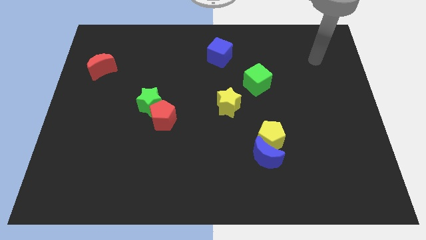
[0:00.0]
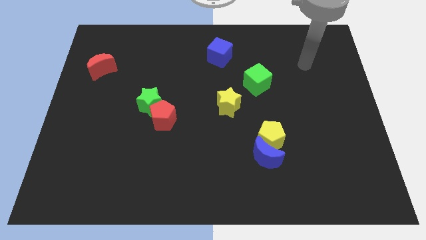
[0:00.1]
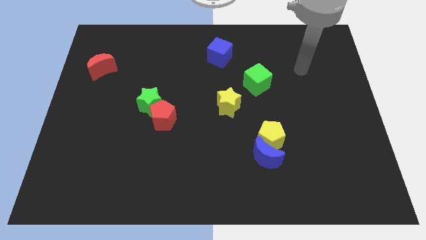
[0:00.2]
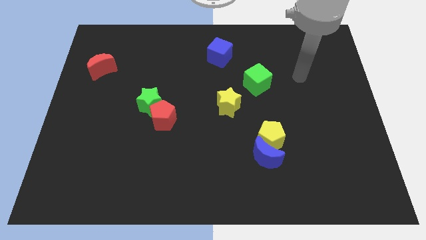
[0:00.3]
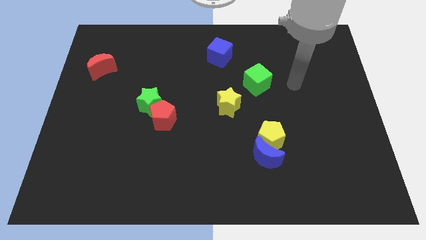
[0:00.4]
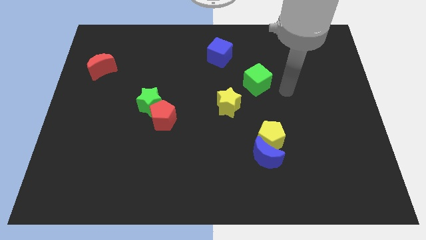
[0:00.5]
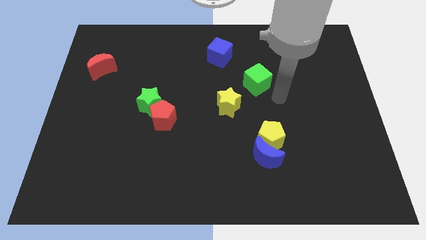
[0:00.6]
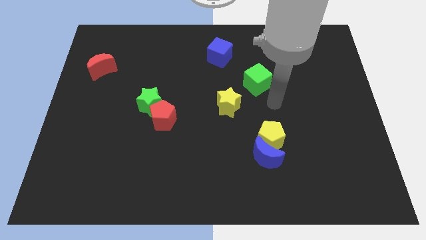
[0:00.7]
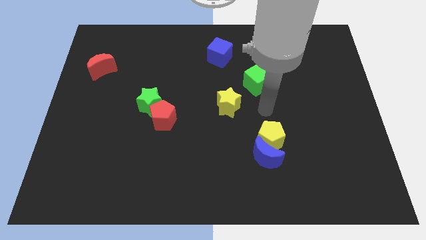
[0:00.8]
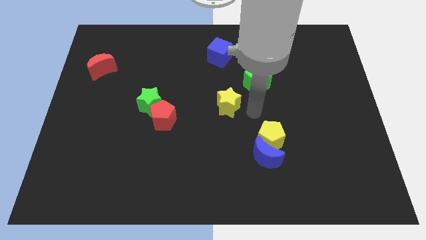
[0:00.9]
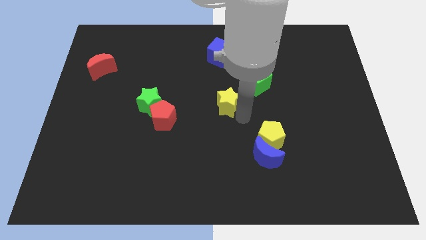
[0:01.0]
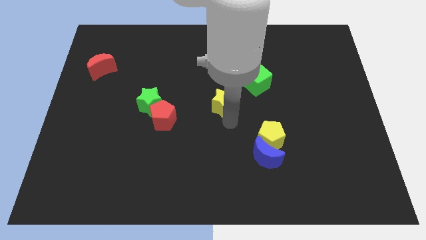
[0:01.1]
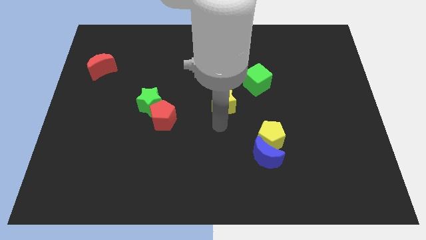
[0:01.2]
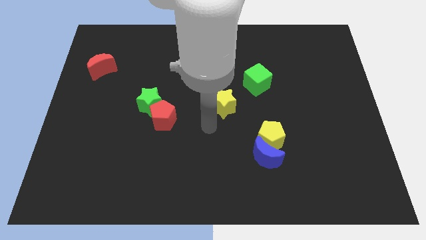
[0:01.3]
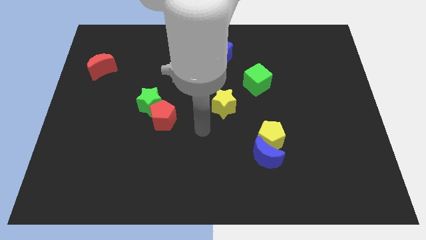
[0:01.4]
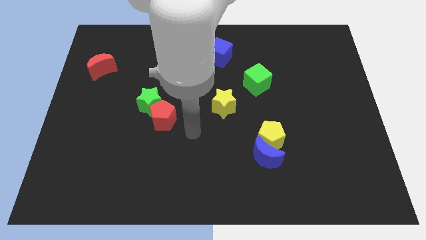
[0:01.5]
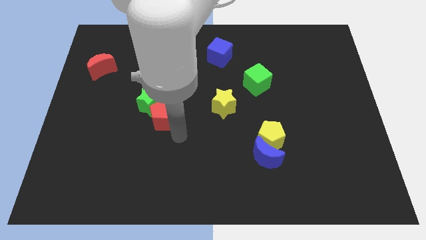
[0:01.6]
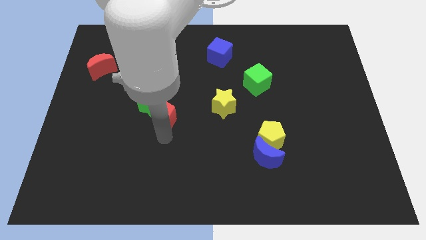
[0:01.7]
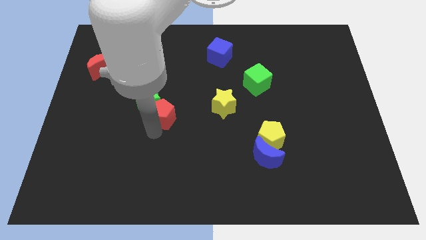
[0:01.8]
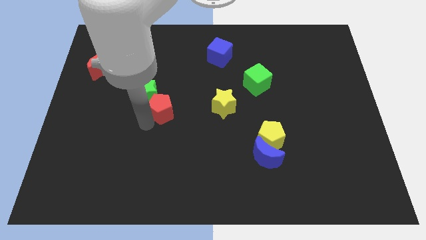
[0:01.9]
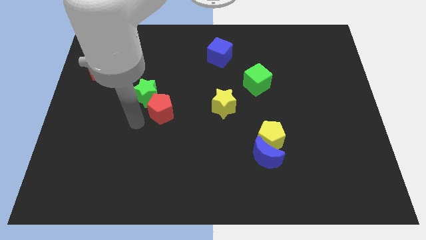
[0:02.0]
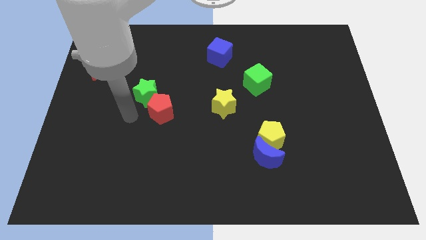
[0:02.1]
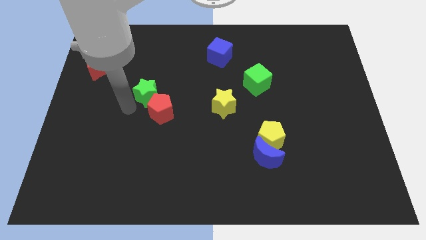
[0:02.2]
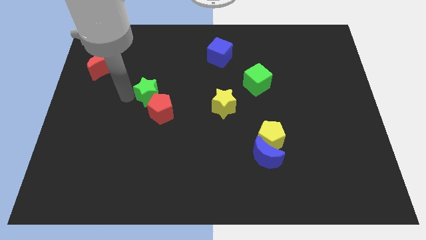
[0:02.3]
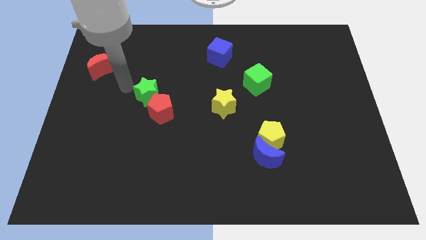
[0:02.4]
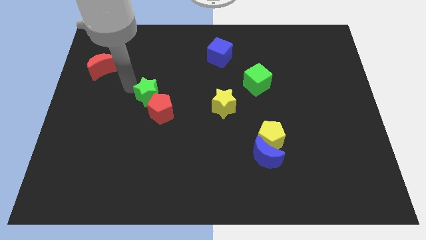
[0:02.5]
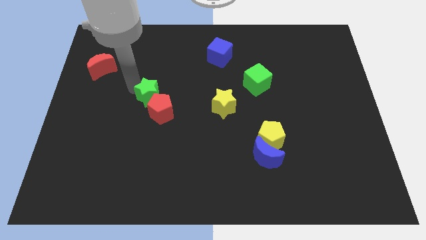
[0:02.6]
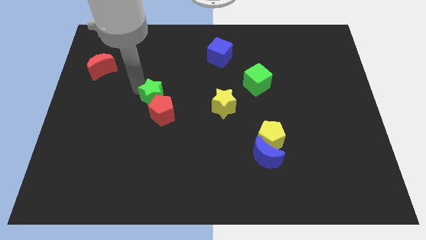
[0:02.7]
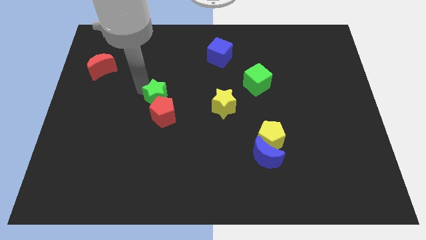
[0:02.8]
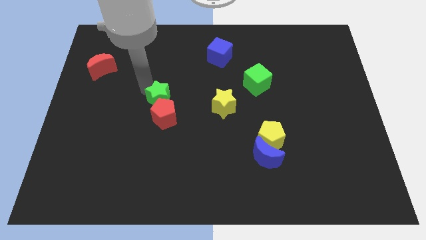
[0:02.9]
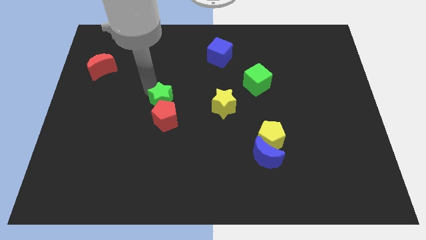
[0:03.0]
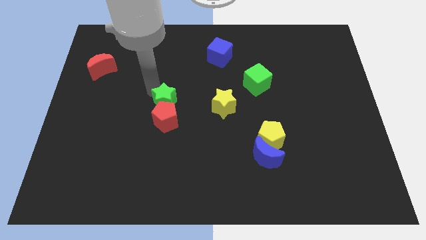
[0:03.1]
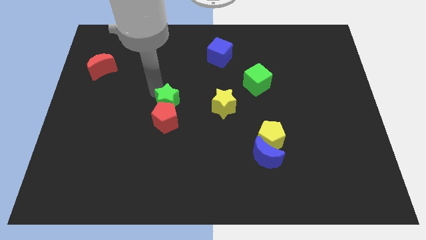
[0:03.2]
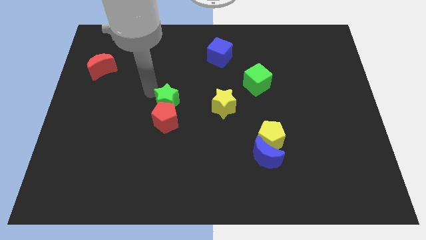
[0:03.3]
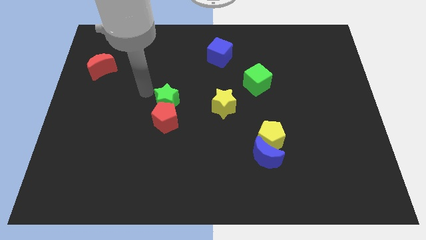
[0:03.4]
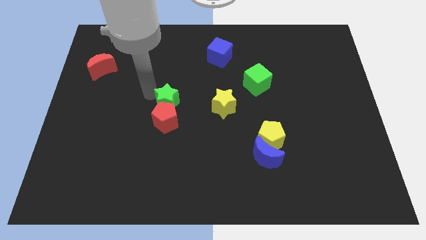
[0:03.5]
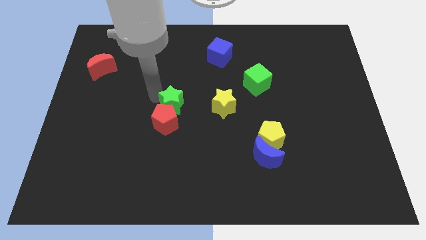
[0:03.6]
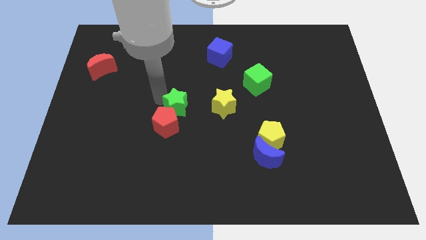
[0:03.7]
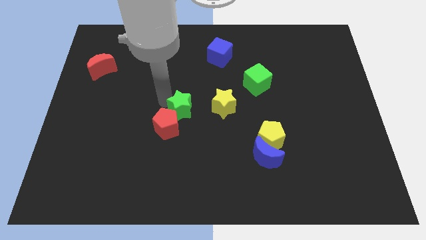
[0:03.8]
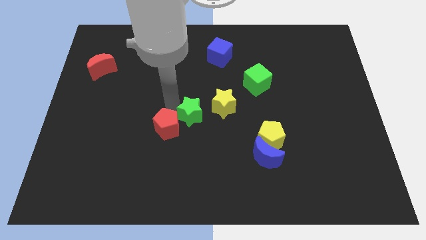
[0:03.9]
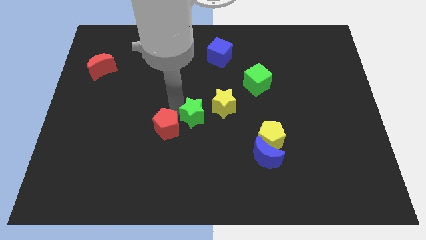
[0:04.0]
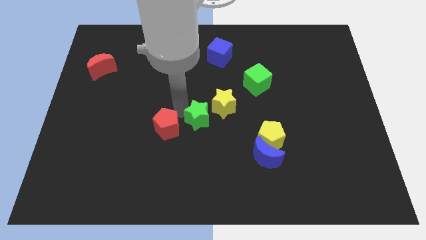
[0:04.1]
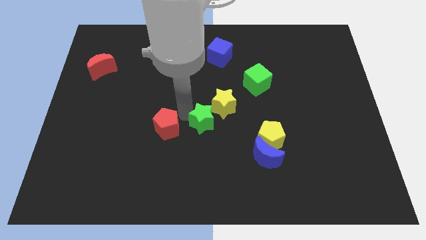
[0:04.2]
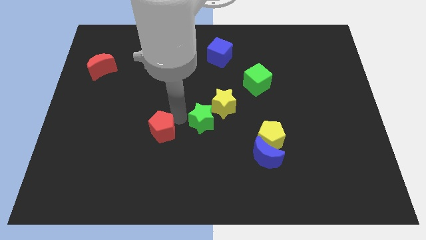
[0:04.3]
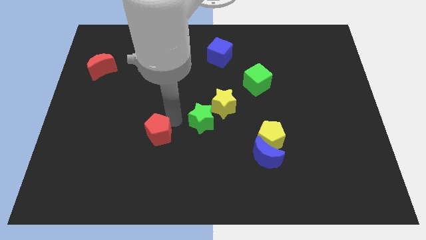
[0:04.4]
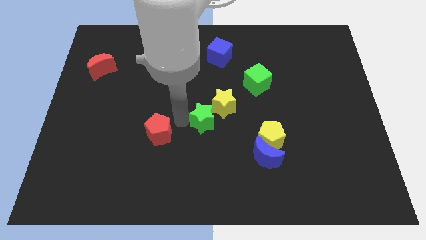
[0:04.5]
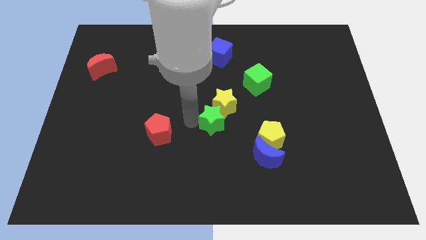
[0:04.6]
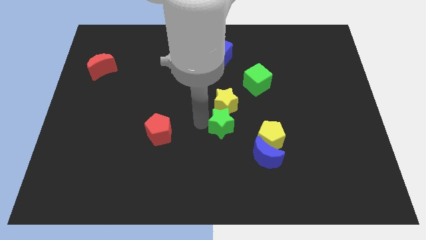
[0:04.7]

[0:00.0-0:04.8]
move the green star diagonally down and to the right of the yellow star

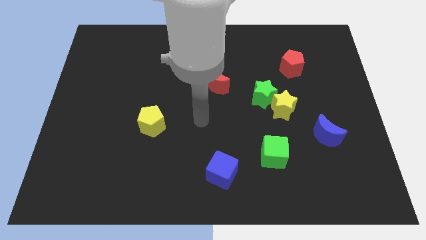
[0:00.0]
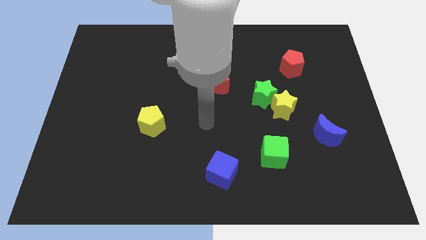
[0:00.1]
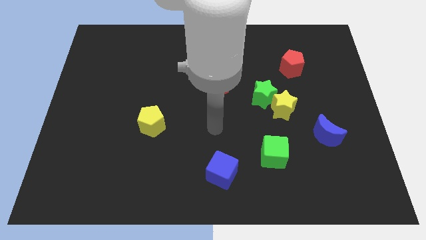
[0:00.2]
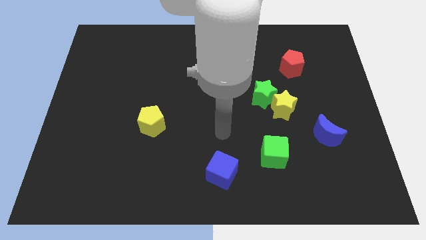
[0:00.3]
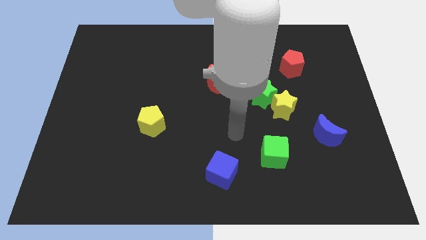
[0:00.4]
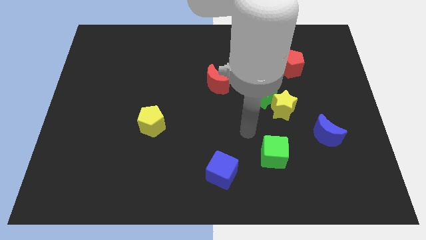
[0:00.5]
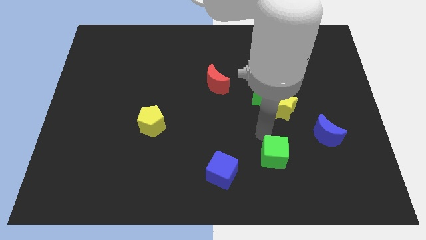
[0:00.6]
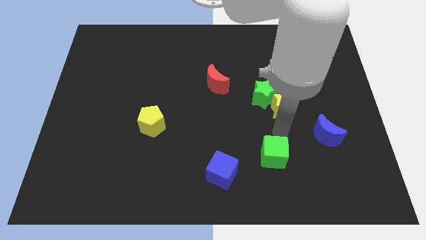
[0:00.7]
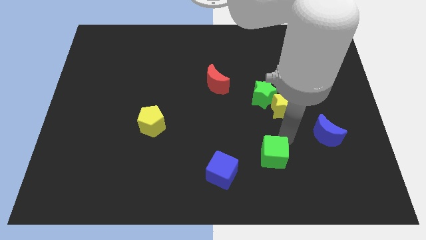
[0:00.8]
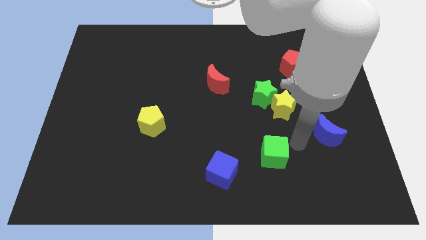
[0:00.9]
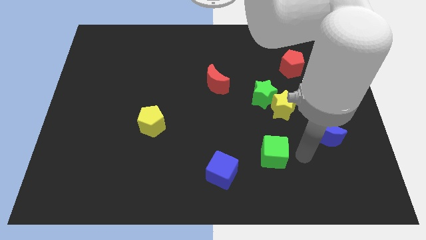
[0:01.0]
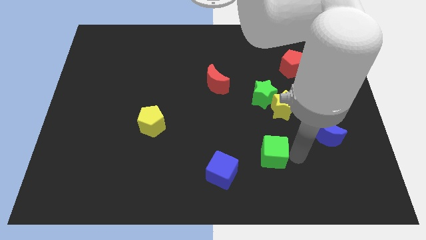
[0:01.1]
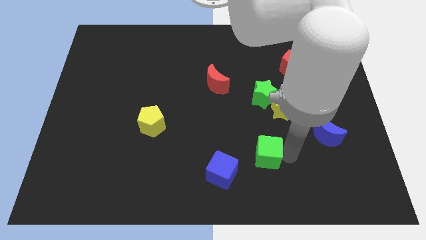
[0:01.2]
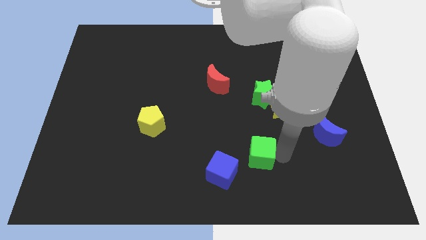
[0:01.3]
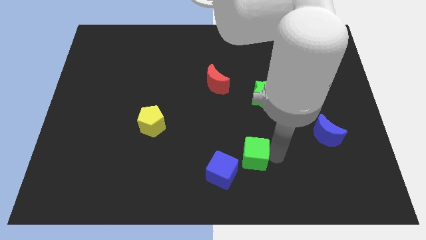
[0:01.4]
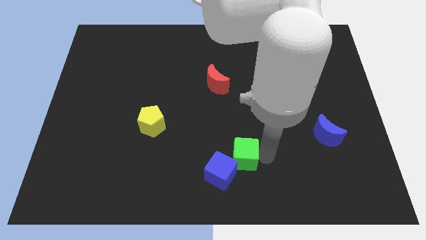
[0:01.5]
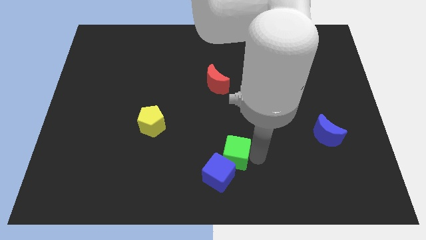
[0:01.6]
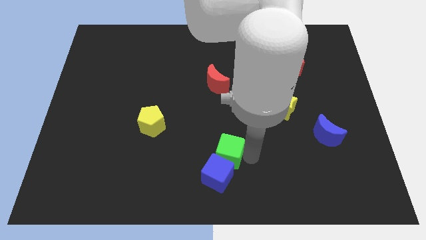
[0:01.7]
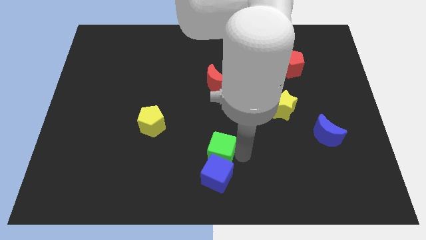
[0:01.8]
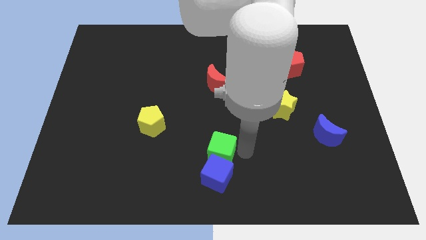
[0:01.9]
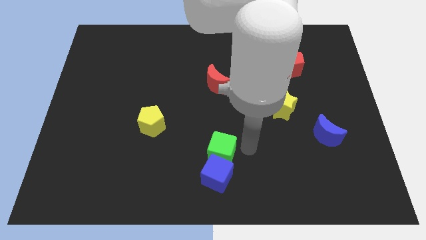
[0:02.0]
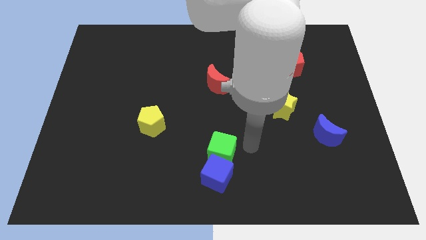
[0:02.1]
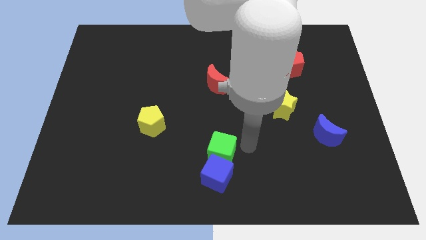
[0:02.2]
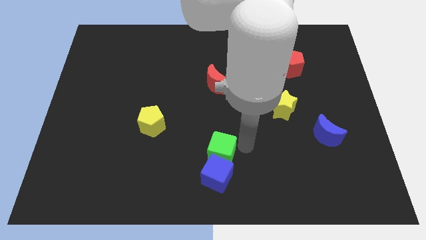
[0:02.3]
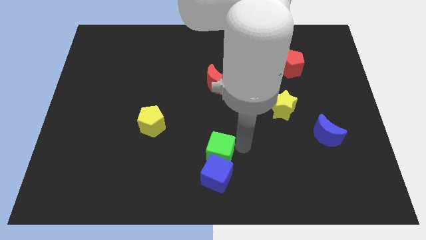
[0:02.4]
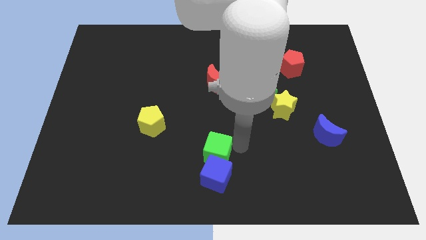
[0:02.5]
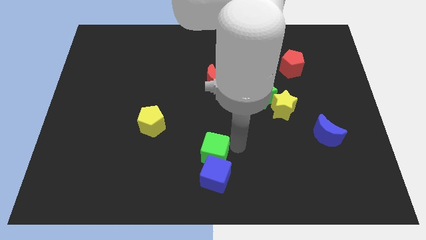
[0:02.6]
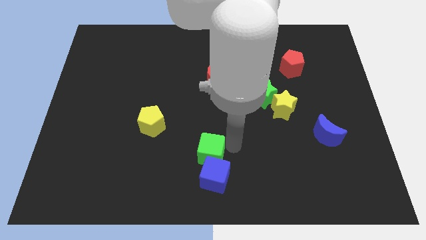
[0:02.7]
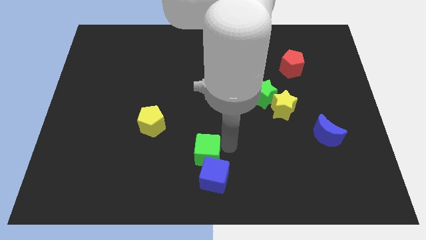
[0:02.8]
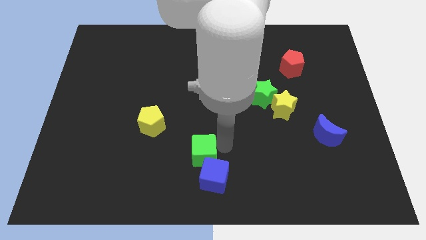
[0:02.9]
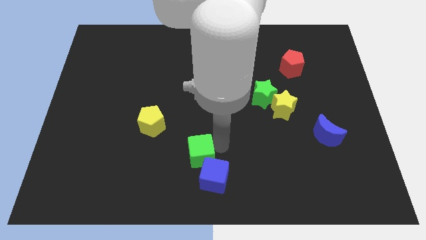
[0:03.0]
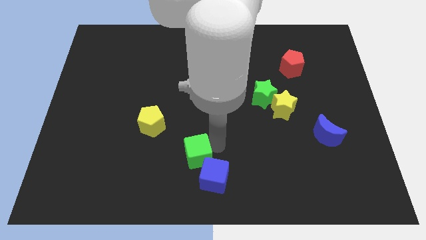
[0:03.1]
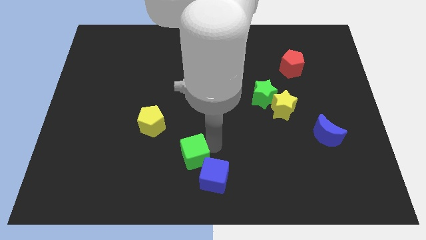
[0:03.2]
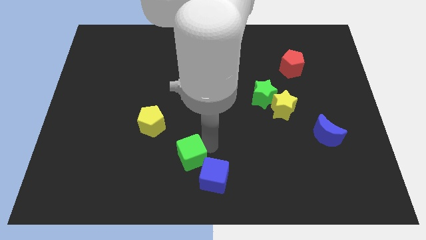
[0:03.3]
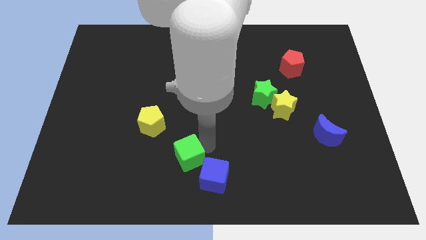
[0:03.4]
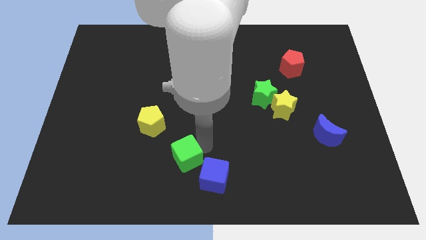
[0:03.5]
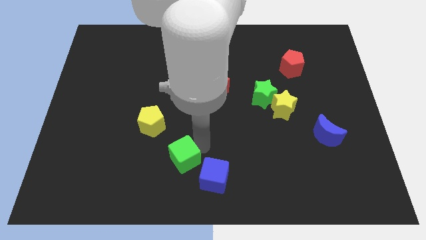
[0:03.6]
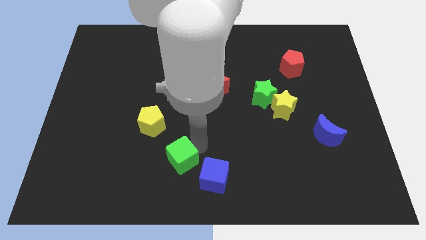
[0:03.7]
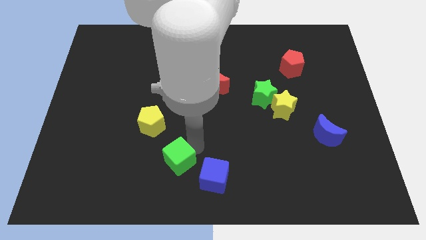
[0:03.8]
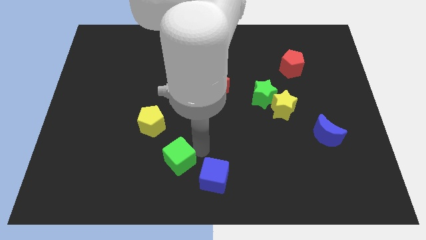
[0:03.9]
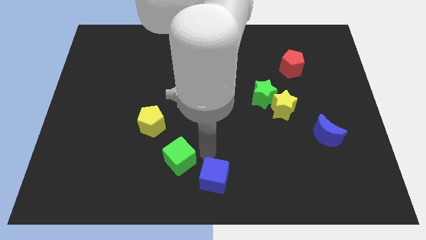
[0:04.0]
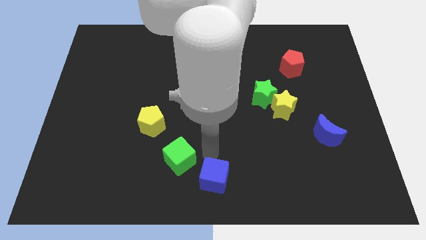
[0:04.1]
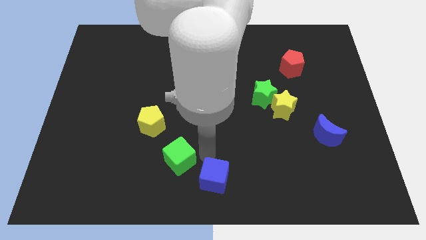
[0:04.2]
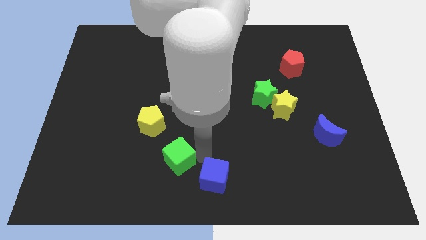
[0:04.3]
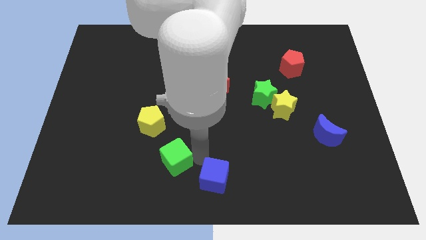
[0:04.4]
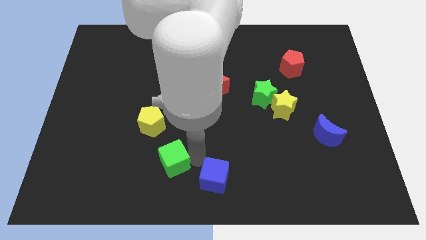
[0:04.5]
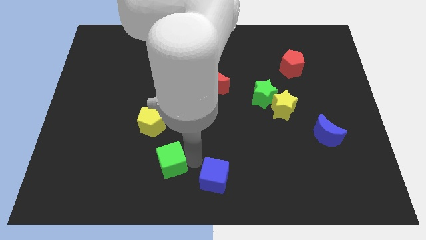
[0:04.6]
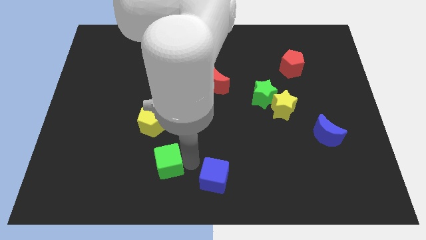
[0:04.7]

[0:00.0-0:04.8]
slide the green cube to the bottom of the yellow pentagon
